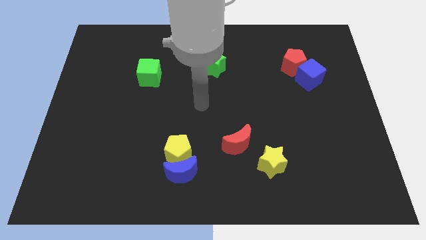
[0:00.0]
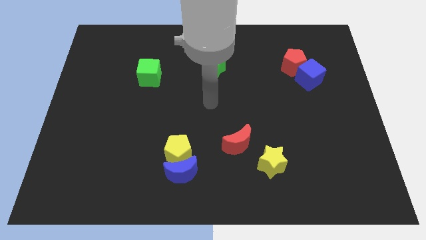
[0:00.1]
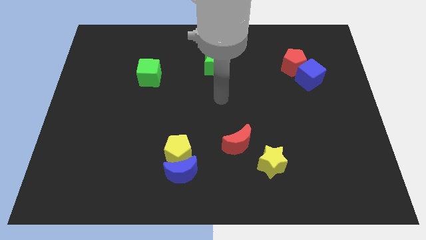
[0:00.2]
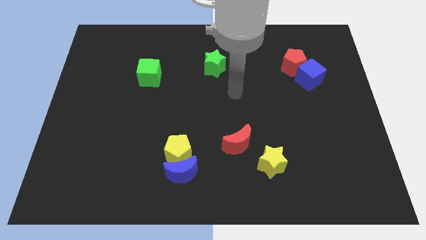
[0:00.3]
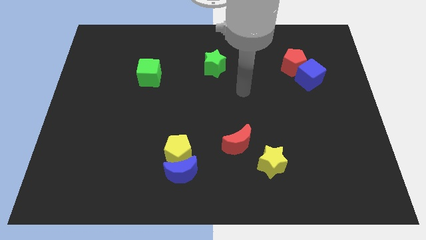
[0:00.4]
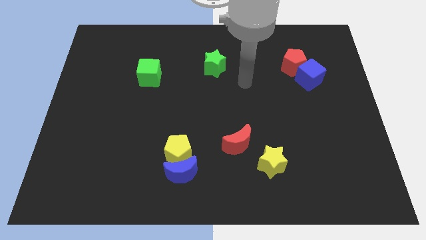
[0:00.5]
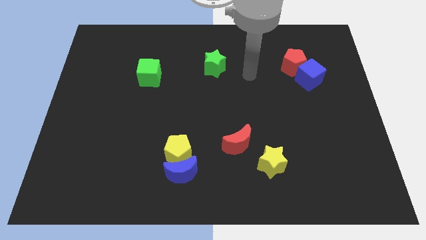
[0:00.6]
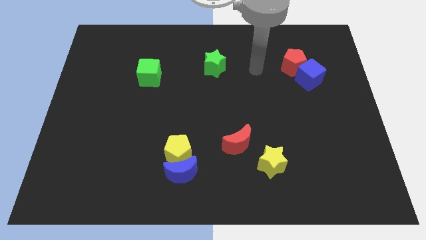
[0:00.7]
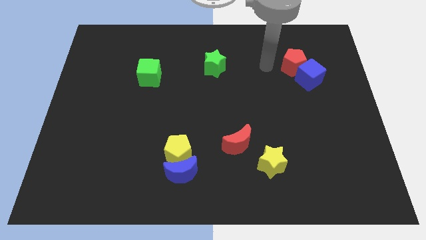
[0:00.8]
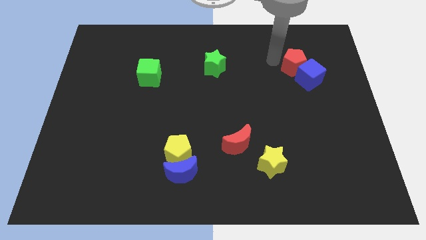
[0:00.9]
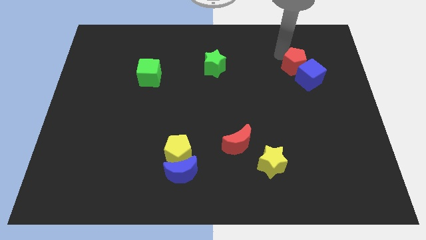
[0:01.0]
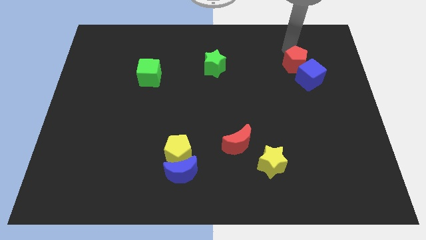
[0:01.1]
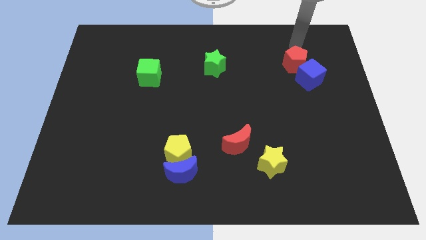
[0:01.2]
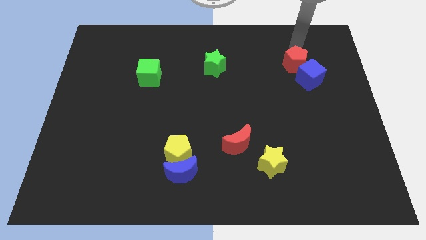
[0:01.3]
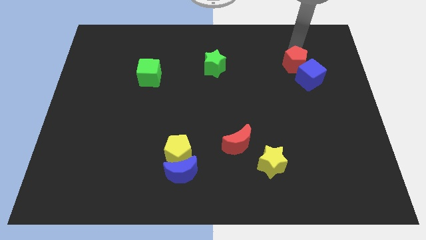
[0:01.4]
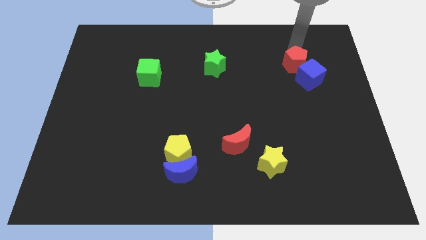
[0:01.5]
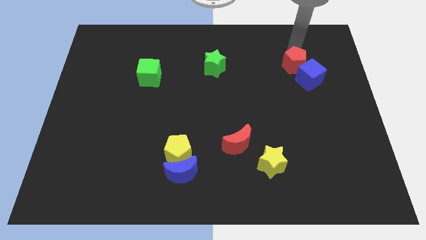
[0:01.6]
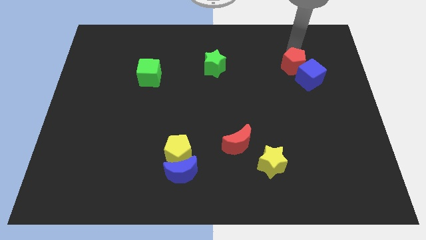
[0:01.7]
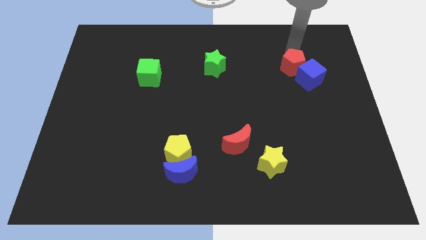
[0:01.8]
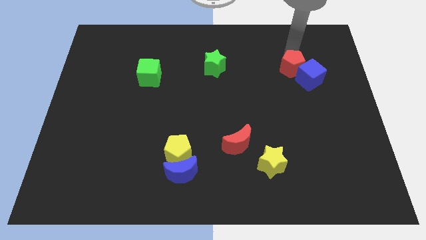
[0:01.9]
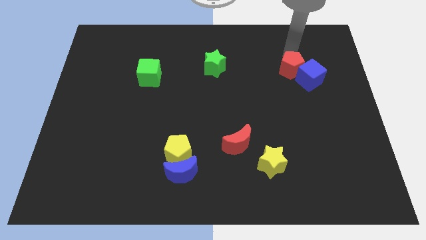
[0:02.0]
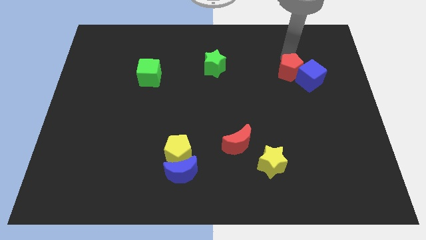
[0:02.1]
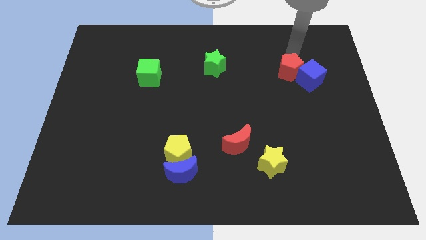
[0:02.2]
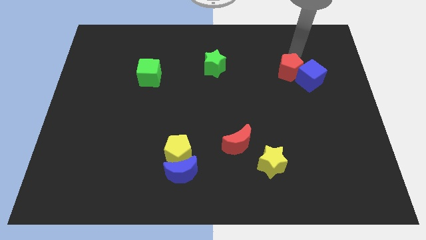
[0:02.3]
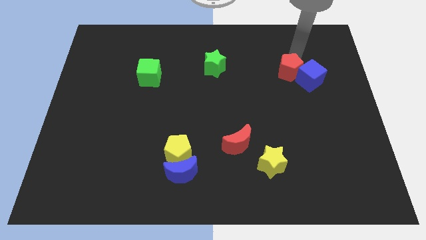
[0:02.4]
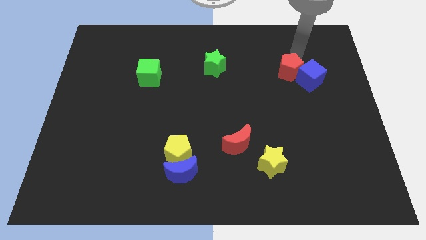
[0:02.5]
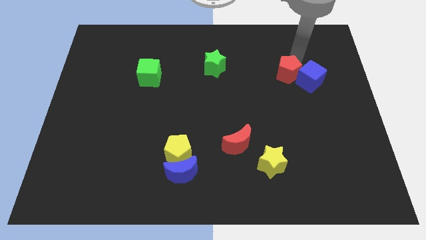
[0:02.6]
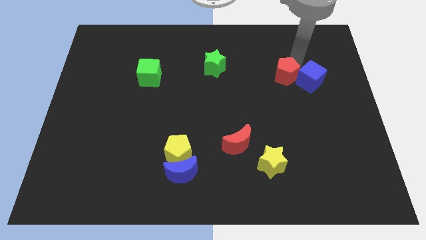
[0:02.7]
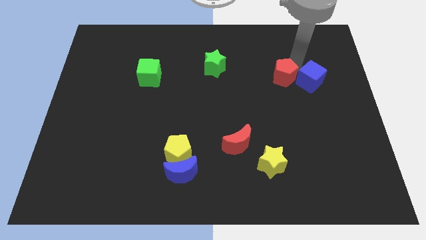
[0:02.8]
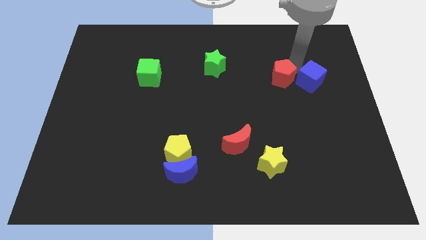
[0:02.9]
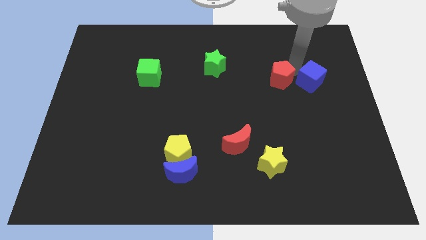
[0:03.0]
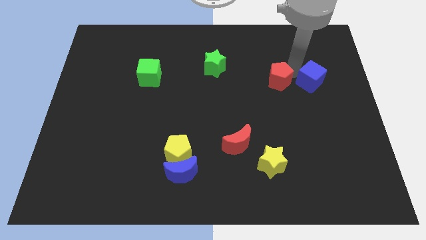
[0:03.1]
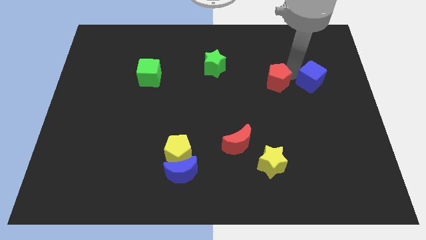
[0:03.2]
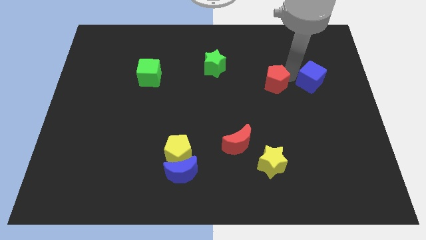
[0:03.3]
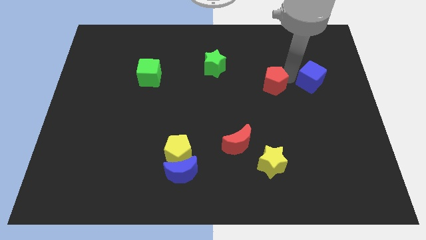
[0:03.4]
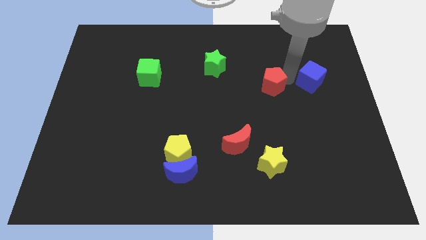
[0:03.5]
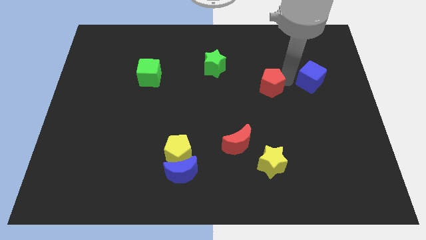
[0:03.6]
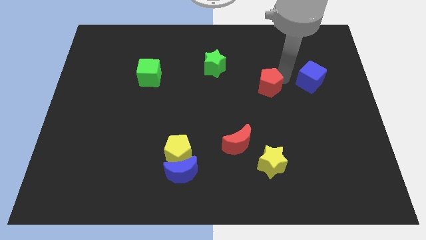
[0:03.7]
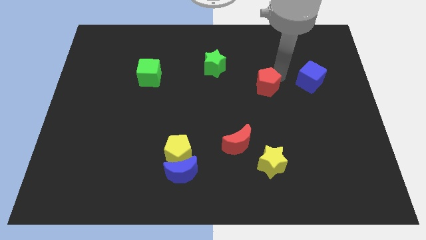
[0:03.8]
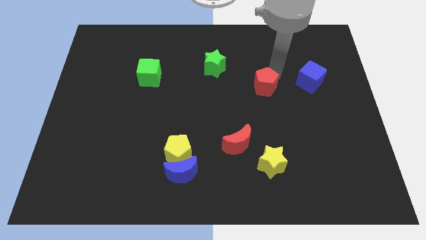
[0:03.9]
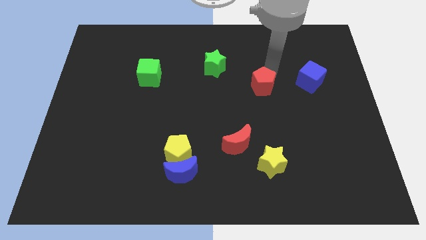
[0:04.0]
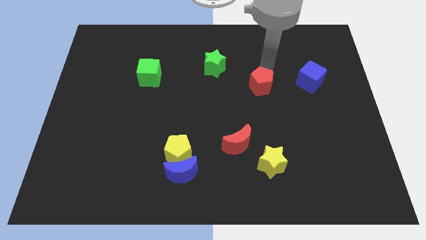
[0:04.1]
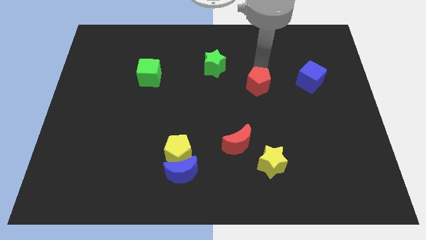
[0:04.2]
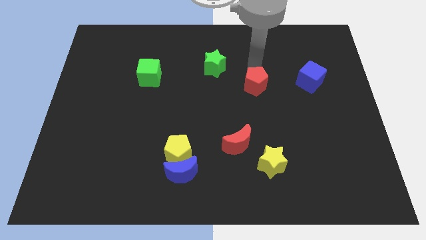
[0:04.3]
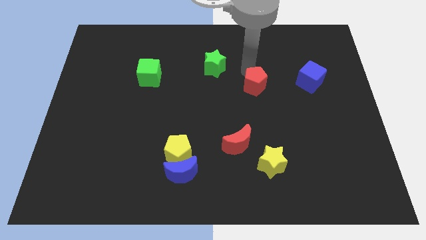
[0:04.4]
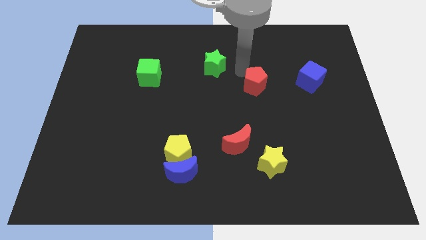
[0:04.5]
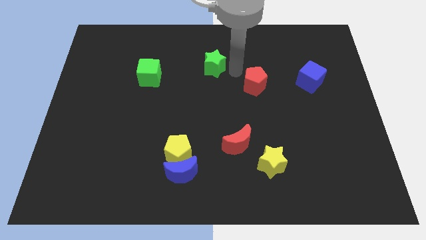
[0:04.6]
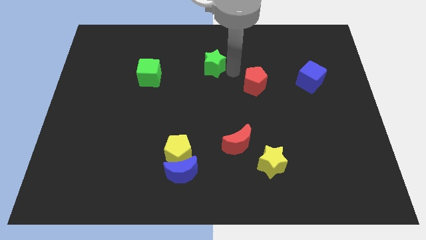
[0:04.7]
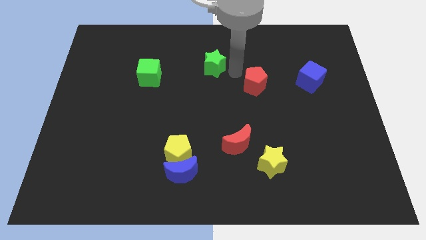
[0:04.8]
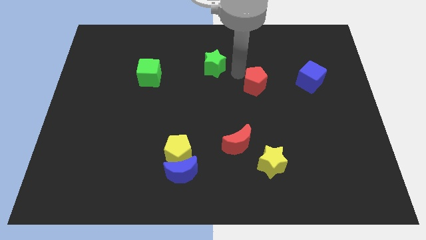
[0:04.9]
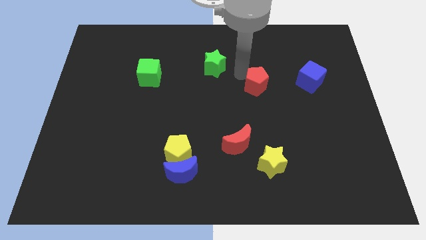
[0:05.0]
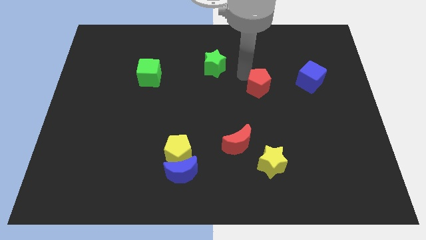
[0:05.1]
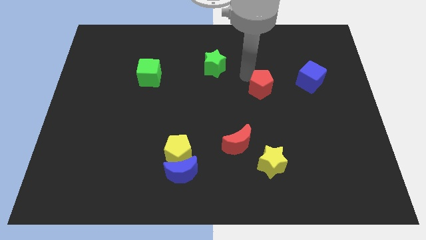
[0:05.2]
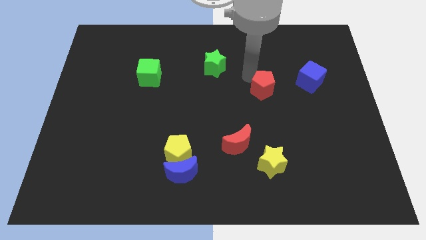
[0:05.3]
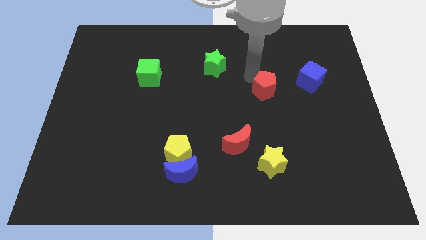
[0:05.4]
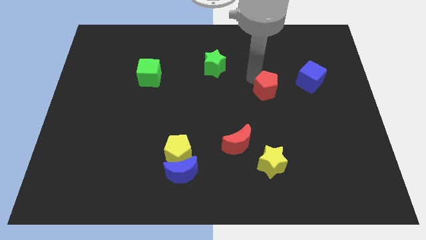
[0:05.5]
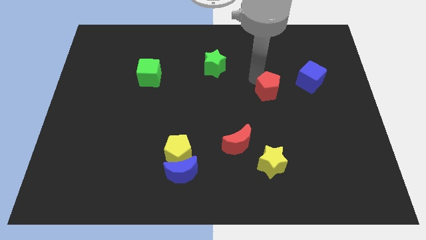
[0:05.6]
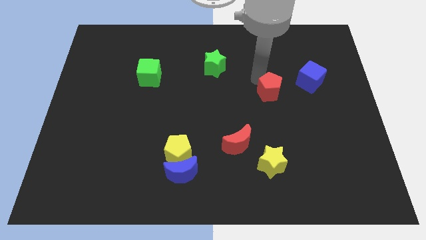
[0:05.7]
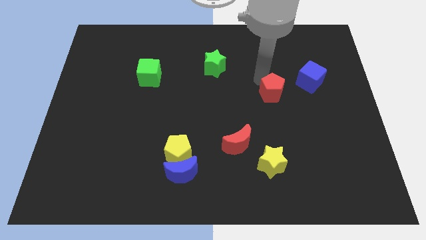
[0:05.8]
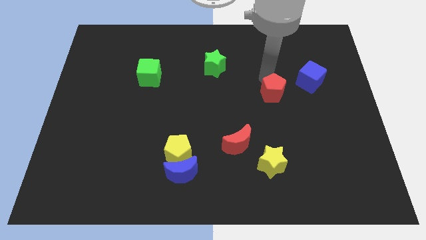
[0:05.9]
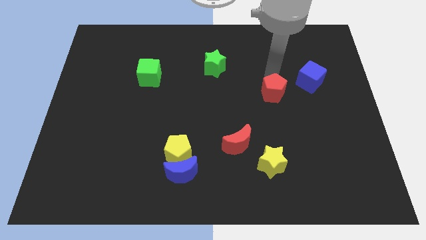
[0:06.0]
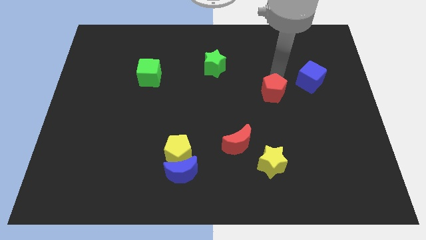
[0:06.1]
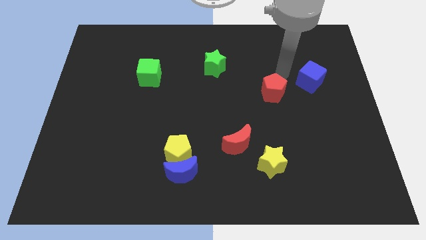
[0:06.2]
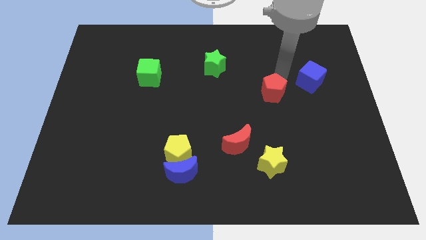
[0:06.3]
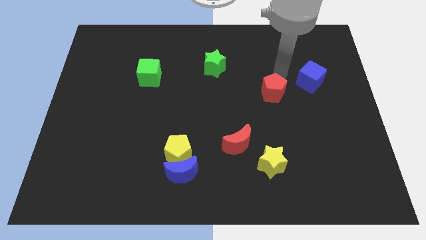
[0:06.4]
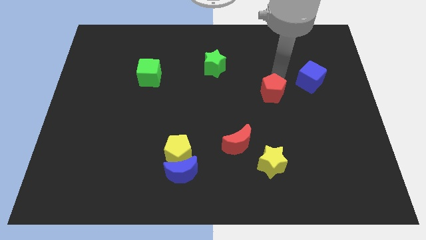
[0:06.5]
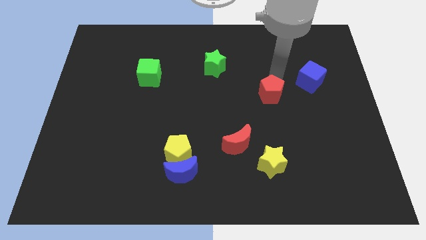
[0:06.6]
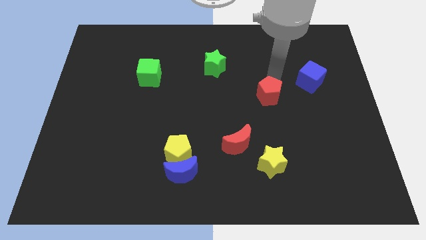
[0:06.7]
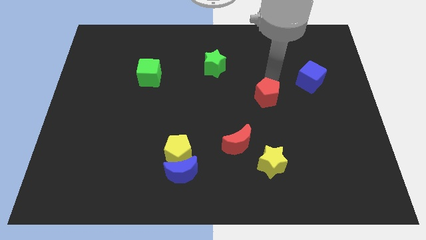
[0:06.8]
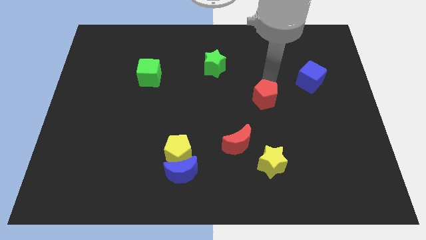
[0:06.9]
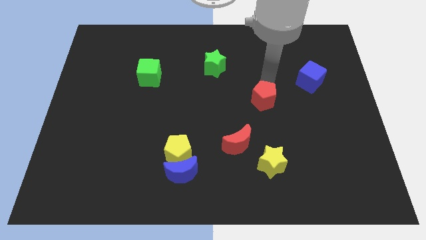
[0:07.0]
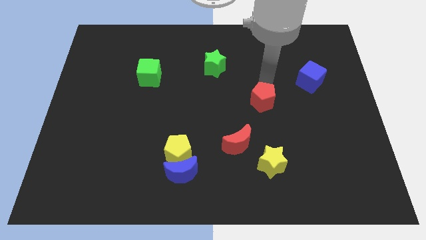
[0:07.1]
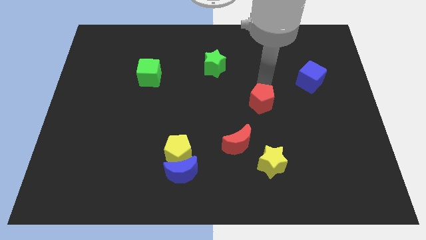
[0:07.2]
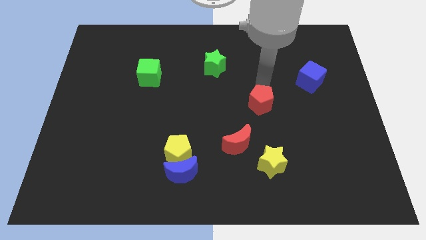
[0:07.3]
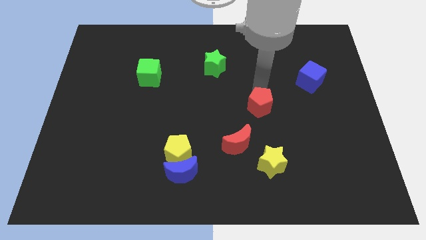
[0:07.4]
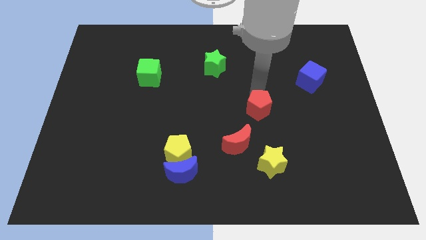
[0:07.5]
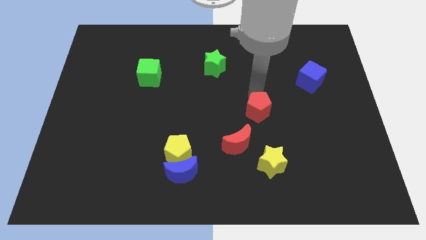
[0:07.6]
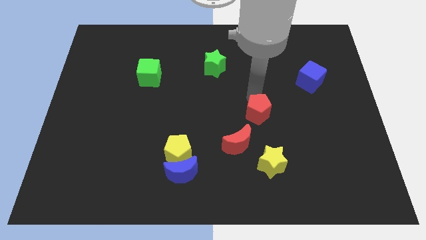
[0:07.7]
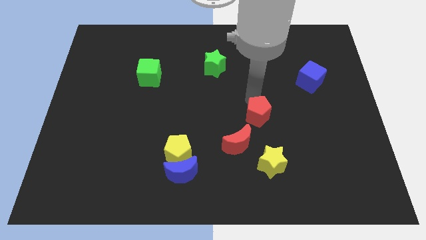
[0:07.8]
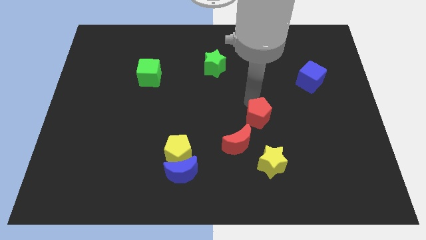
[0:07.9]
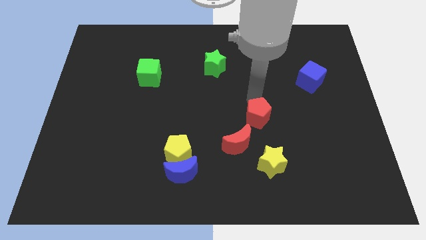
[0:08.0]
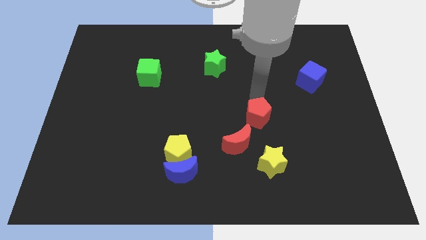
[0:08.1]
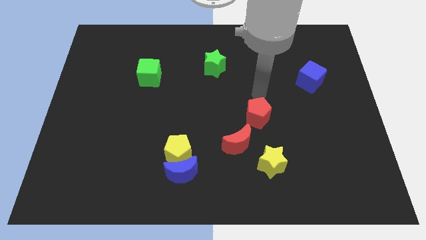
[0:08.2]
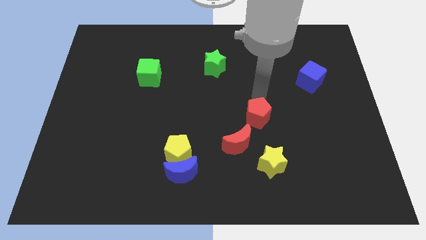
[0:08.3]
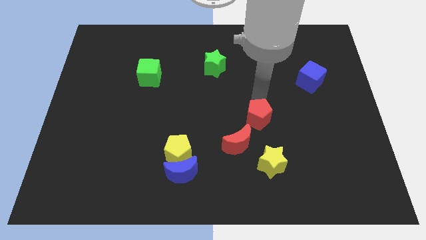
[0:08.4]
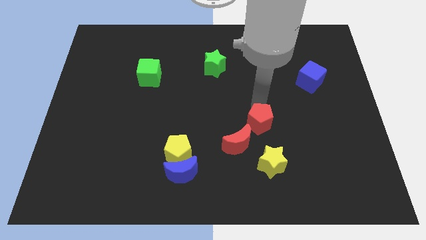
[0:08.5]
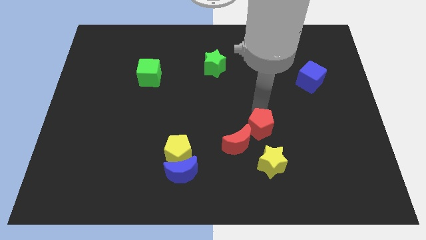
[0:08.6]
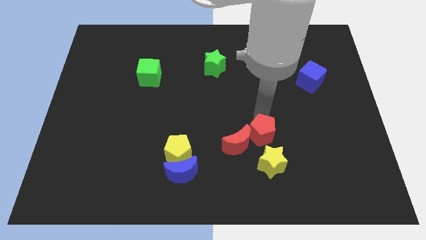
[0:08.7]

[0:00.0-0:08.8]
move the red pentagon towards the red moon
